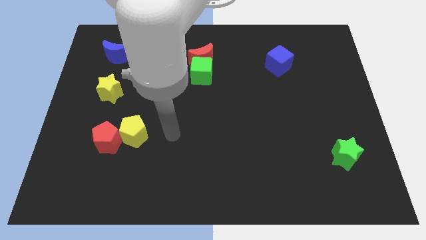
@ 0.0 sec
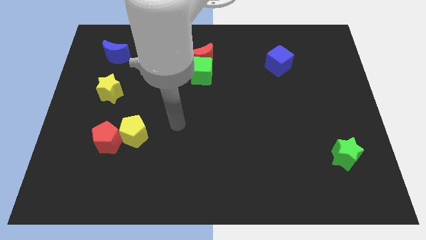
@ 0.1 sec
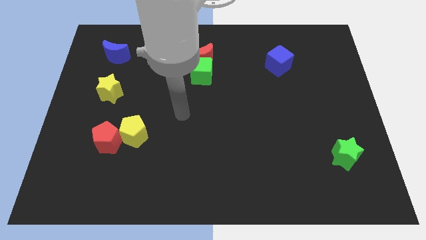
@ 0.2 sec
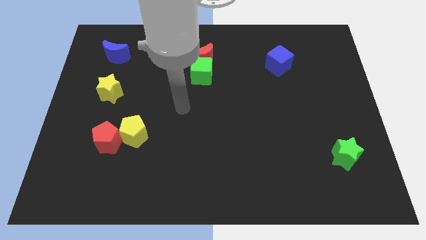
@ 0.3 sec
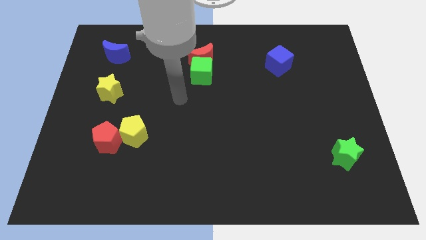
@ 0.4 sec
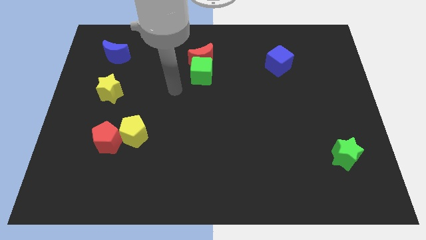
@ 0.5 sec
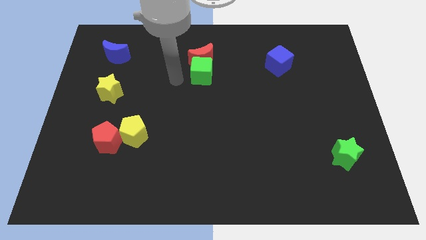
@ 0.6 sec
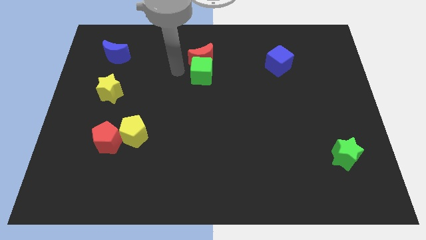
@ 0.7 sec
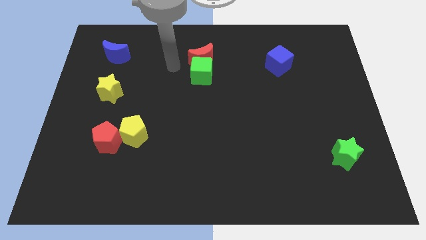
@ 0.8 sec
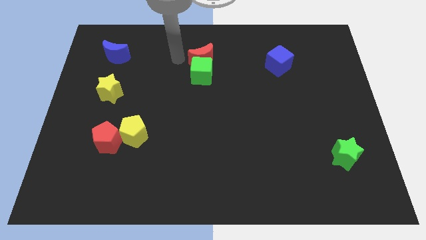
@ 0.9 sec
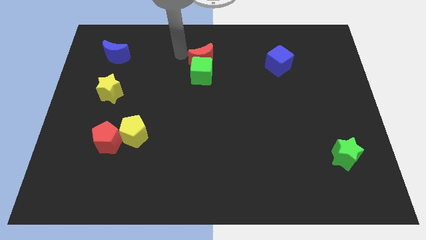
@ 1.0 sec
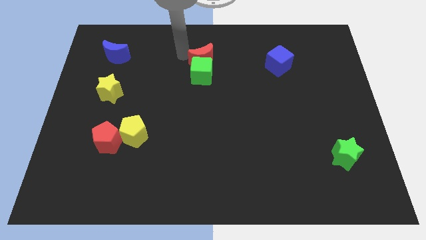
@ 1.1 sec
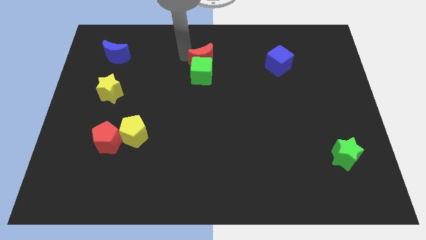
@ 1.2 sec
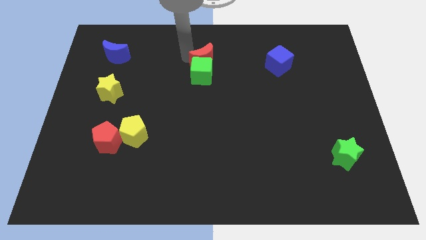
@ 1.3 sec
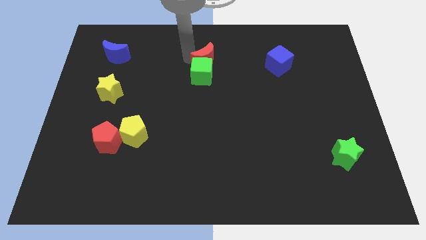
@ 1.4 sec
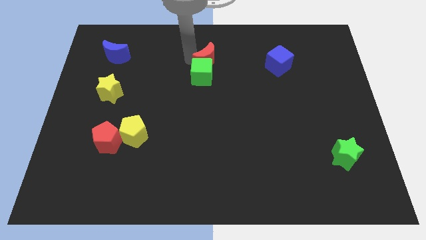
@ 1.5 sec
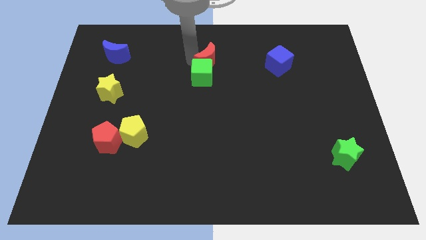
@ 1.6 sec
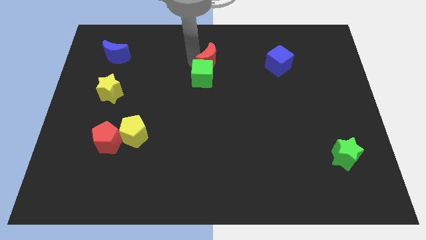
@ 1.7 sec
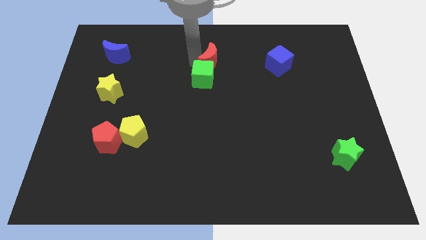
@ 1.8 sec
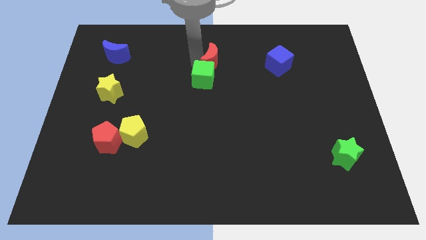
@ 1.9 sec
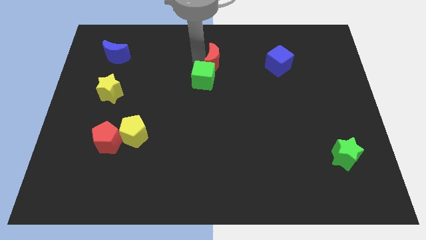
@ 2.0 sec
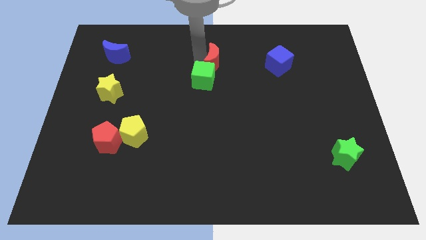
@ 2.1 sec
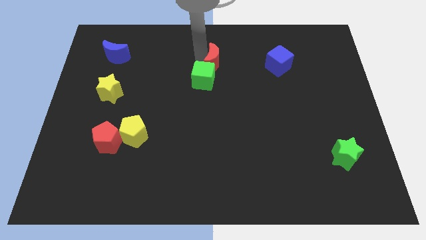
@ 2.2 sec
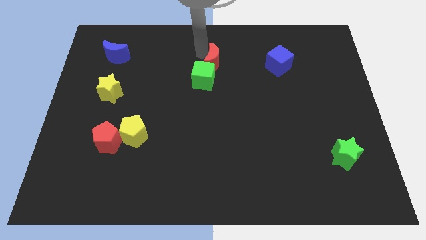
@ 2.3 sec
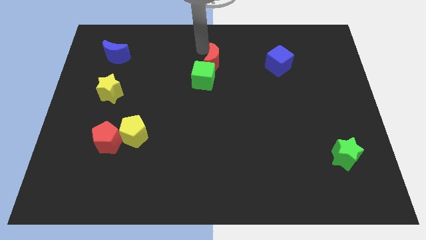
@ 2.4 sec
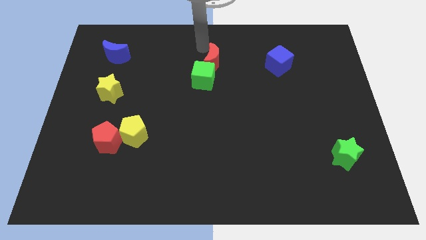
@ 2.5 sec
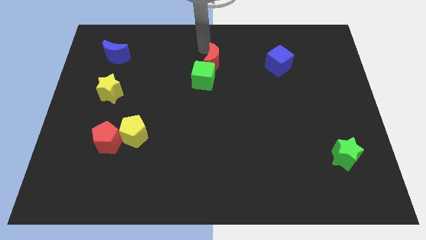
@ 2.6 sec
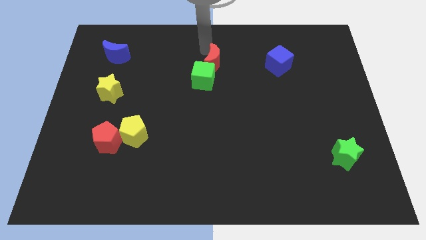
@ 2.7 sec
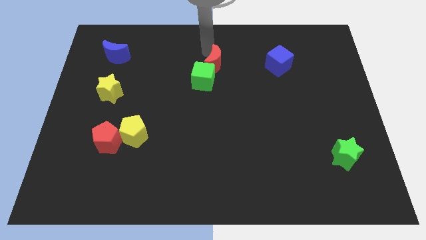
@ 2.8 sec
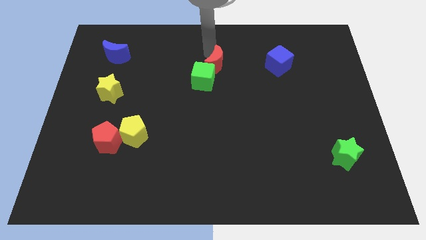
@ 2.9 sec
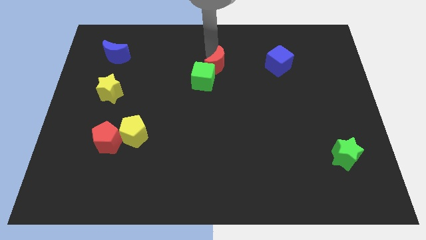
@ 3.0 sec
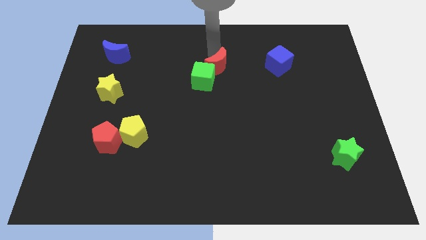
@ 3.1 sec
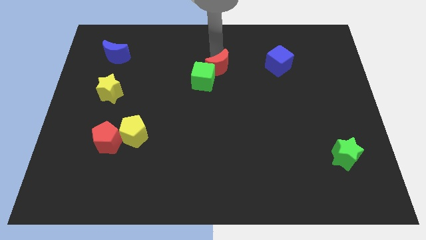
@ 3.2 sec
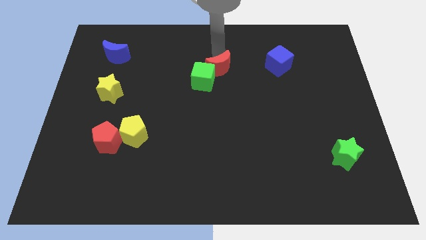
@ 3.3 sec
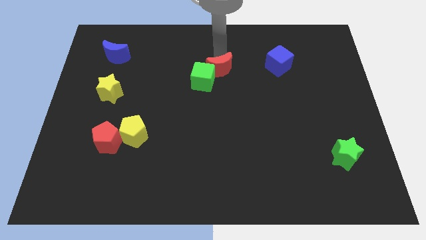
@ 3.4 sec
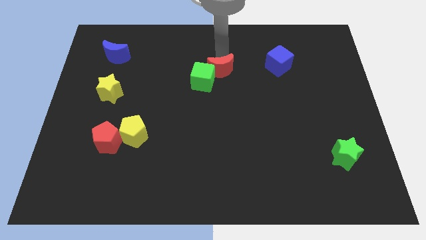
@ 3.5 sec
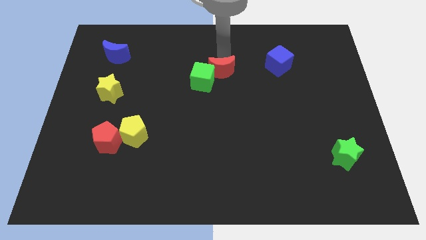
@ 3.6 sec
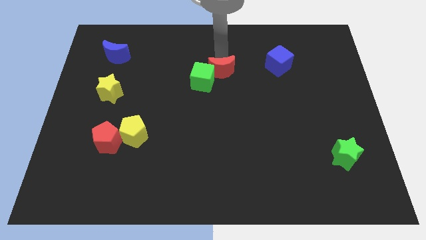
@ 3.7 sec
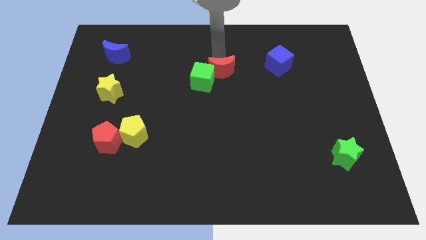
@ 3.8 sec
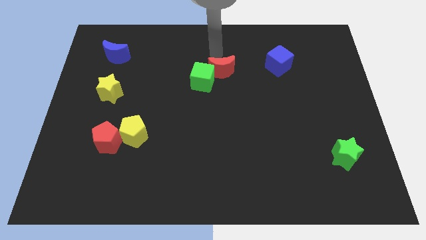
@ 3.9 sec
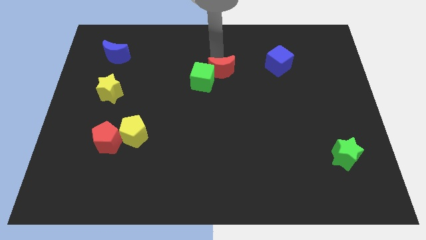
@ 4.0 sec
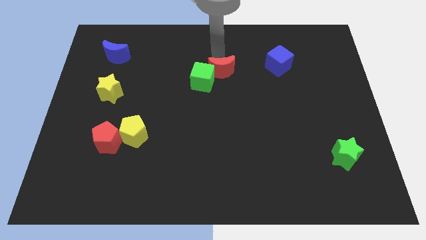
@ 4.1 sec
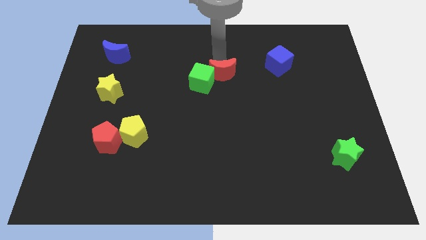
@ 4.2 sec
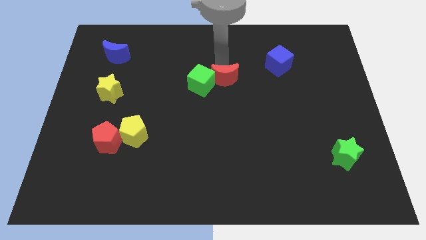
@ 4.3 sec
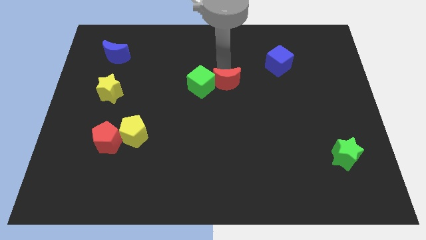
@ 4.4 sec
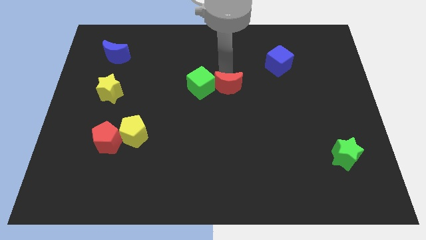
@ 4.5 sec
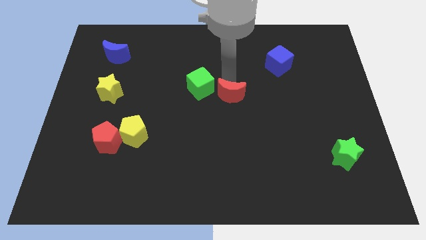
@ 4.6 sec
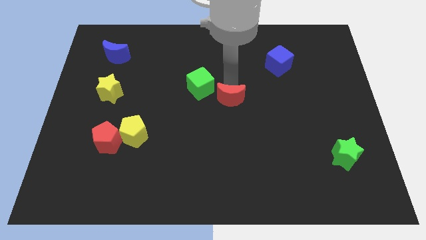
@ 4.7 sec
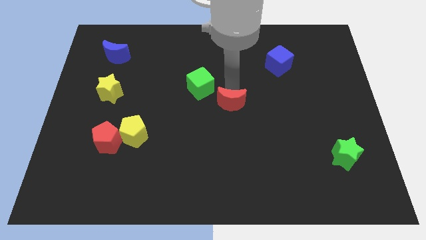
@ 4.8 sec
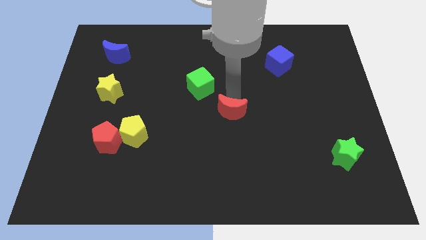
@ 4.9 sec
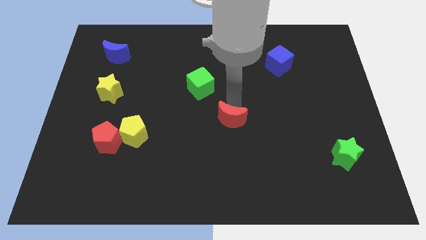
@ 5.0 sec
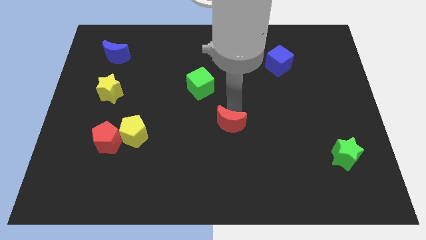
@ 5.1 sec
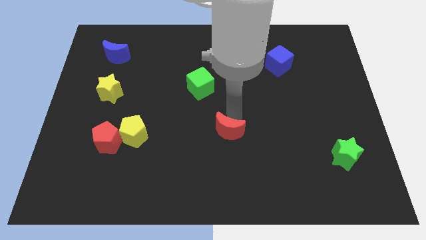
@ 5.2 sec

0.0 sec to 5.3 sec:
push the red moon downwards

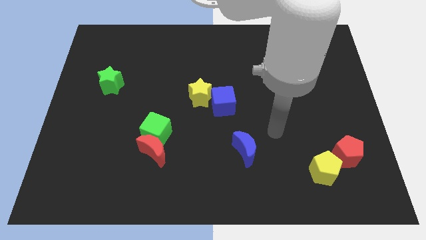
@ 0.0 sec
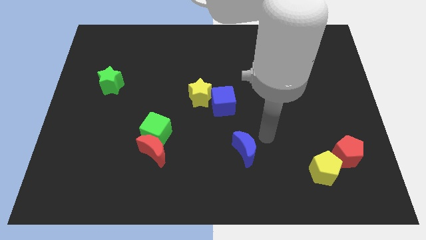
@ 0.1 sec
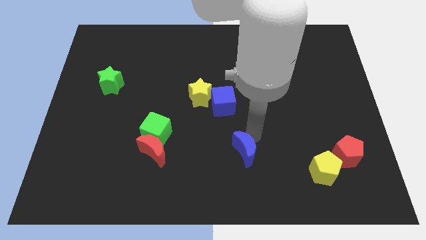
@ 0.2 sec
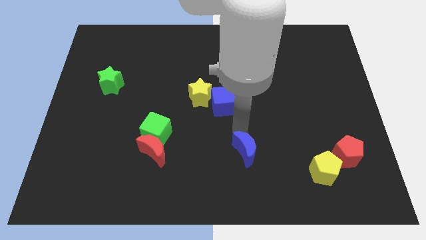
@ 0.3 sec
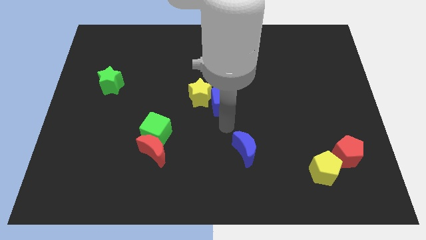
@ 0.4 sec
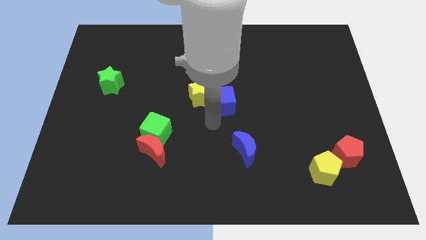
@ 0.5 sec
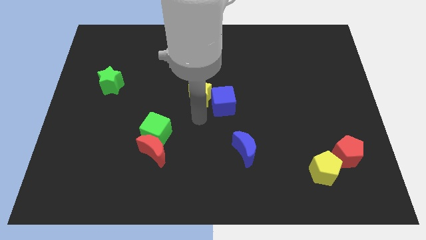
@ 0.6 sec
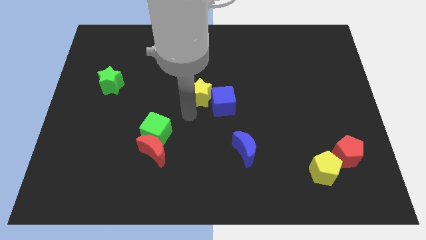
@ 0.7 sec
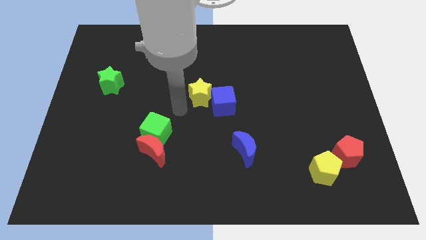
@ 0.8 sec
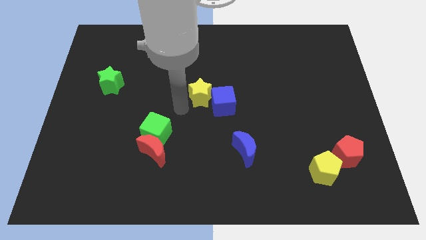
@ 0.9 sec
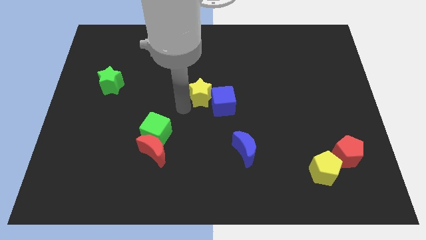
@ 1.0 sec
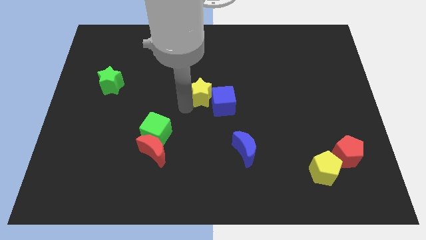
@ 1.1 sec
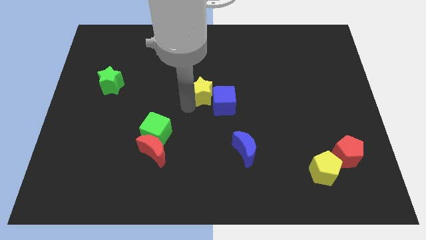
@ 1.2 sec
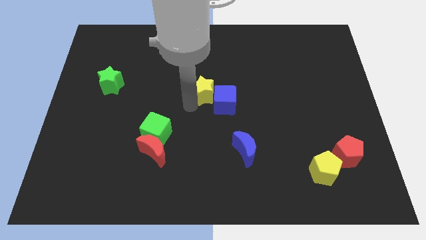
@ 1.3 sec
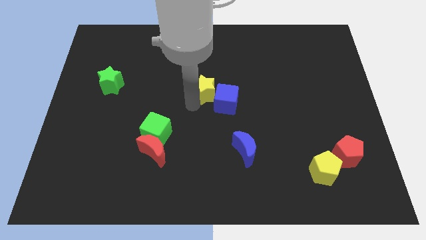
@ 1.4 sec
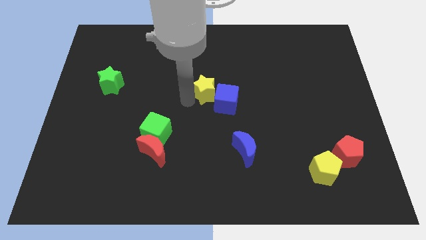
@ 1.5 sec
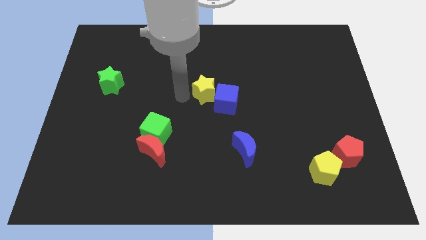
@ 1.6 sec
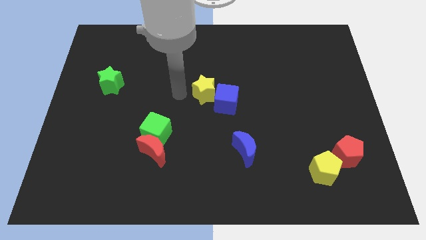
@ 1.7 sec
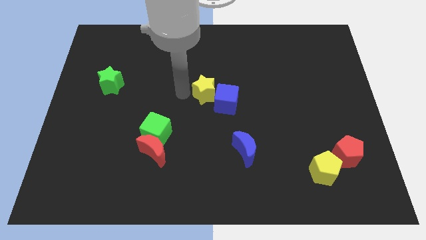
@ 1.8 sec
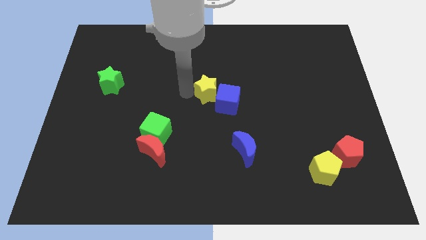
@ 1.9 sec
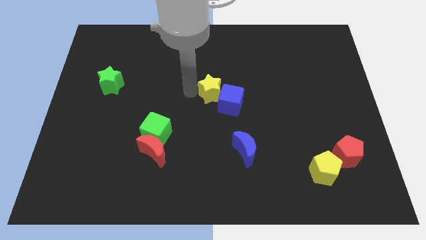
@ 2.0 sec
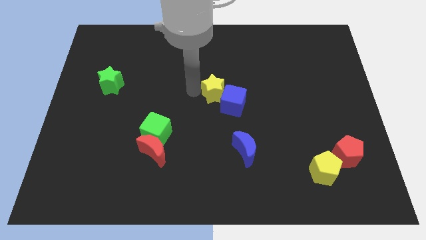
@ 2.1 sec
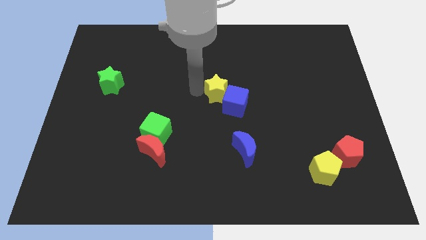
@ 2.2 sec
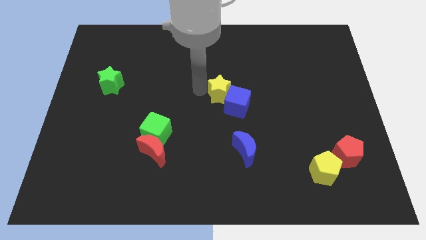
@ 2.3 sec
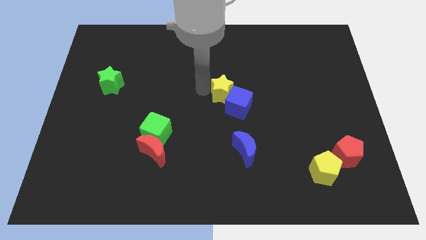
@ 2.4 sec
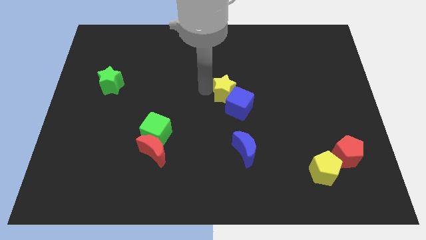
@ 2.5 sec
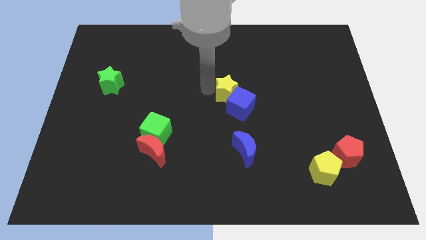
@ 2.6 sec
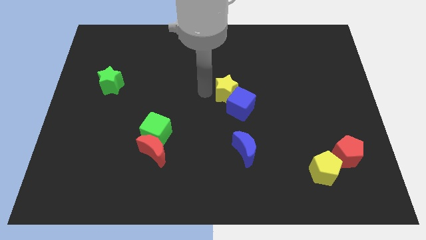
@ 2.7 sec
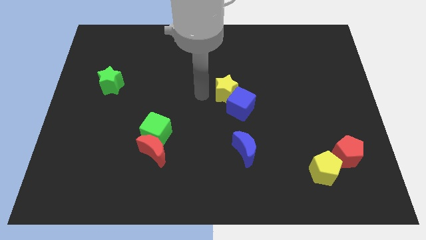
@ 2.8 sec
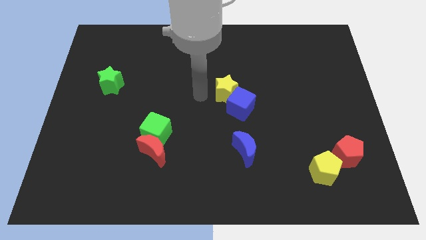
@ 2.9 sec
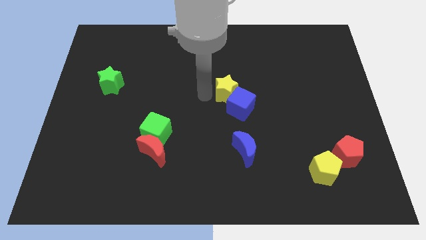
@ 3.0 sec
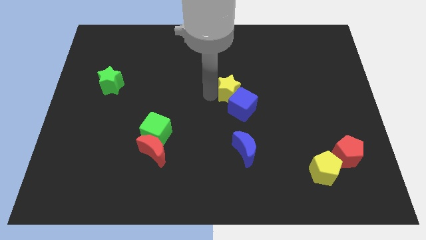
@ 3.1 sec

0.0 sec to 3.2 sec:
move the yellow star to the right a little
